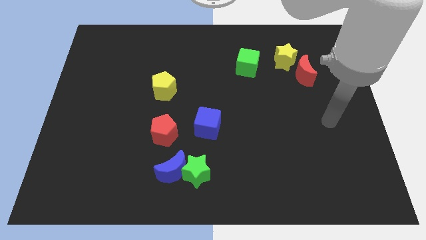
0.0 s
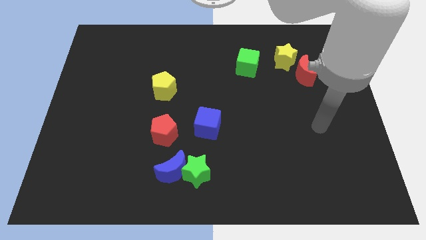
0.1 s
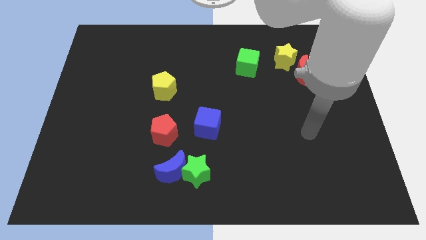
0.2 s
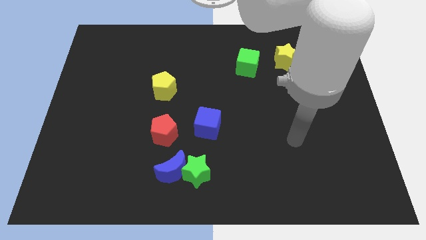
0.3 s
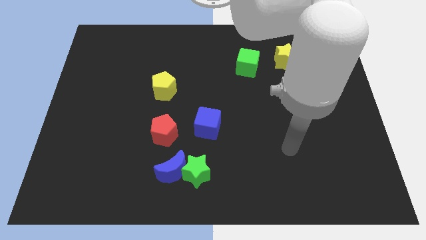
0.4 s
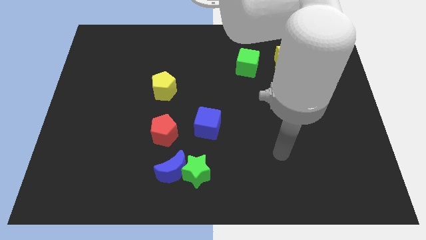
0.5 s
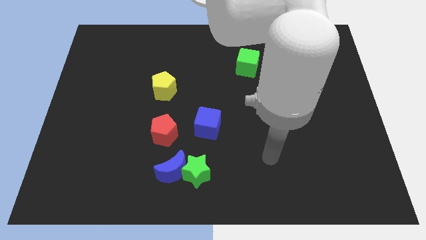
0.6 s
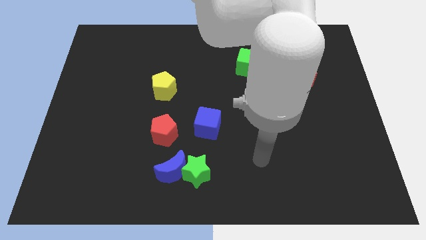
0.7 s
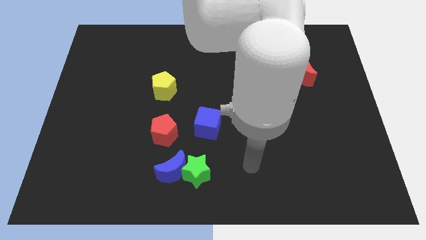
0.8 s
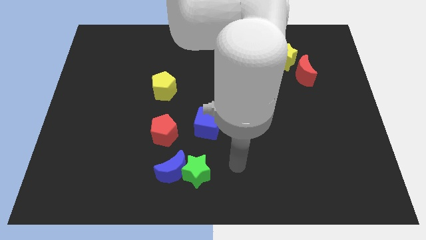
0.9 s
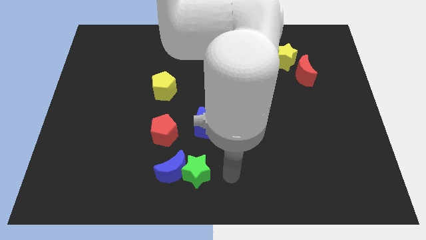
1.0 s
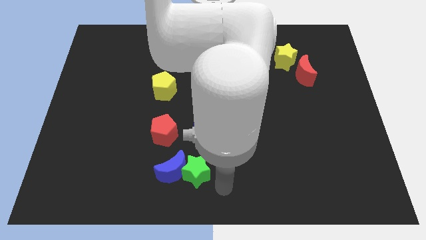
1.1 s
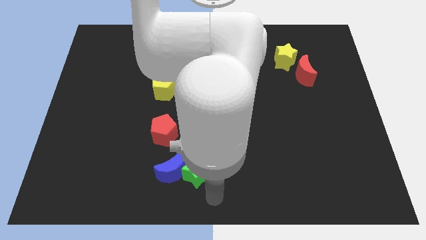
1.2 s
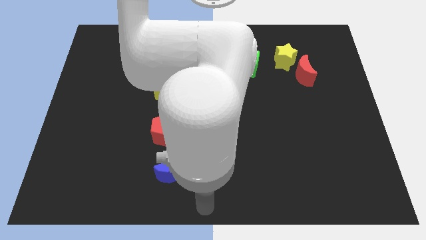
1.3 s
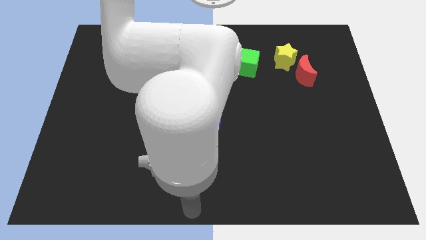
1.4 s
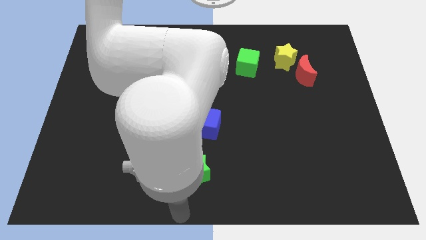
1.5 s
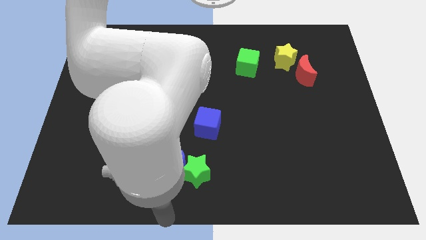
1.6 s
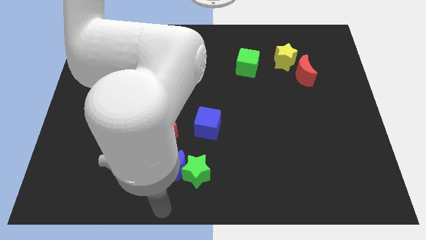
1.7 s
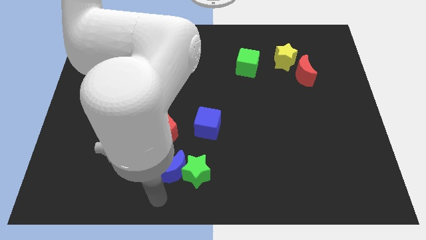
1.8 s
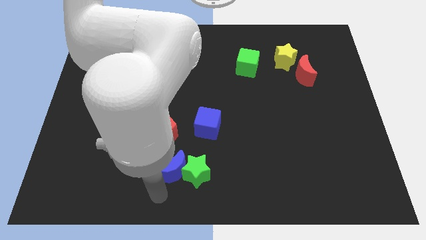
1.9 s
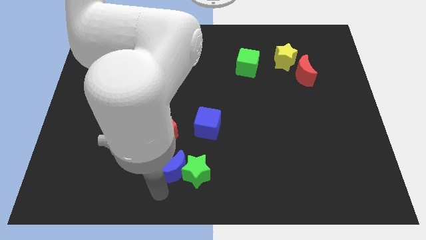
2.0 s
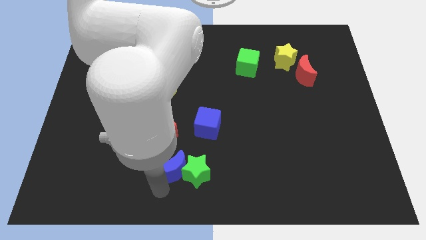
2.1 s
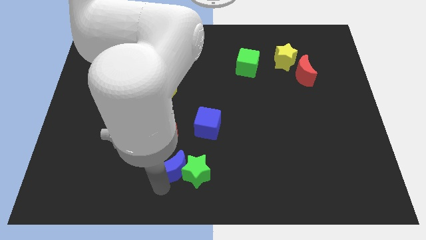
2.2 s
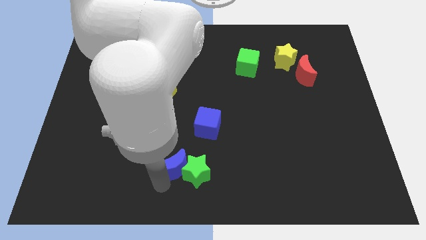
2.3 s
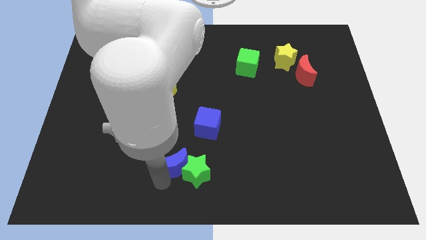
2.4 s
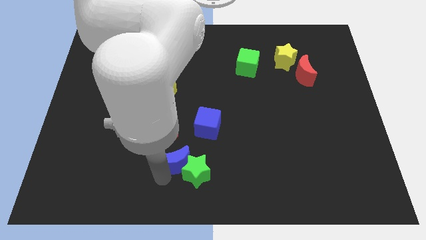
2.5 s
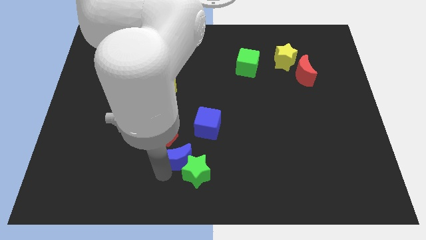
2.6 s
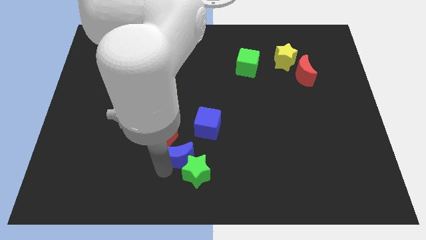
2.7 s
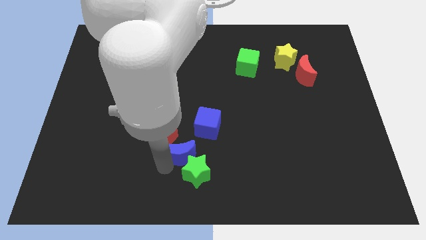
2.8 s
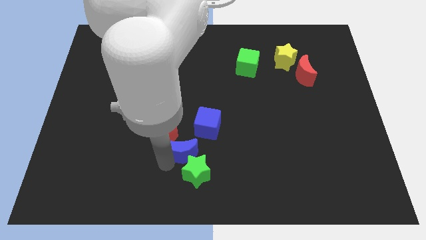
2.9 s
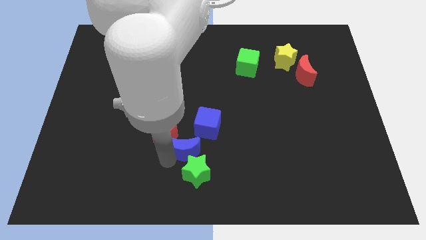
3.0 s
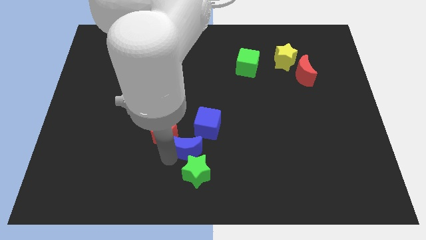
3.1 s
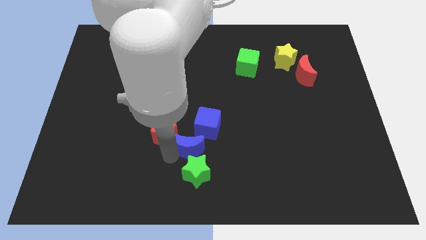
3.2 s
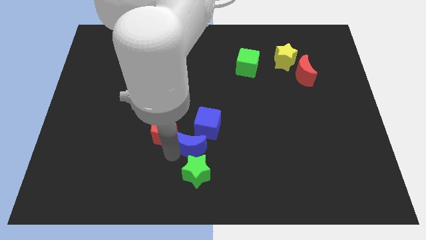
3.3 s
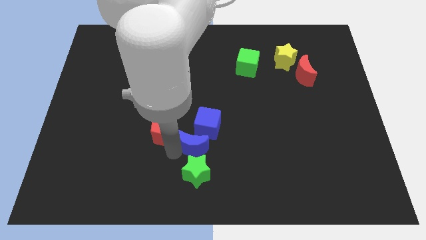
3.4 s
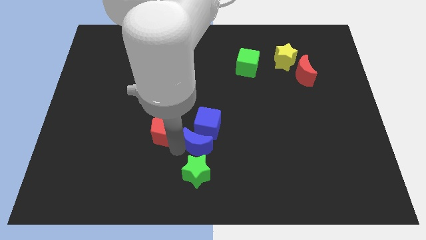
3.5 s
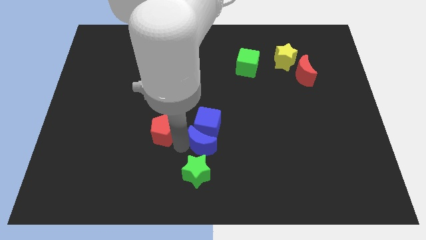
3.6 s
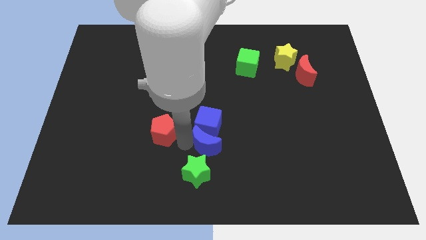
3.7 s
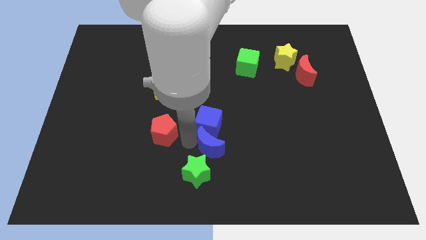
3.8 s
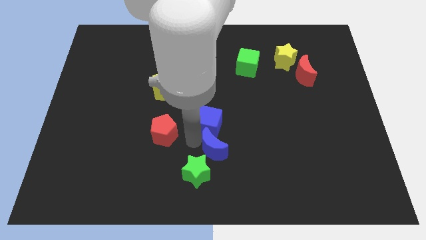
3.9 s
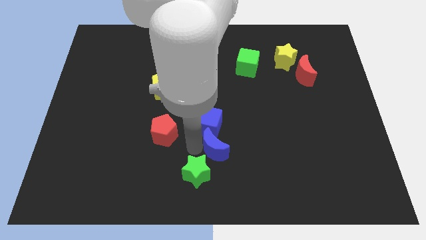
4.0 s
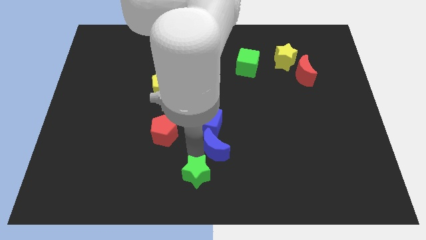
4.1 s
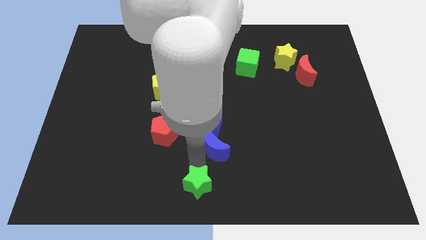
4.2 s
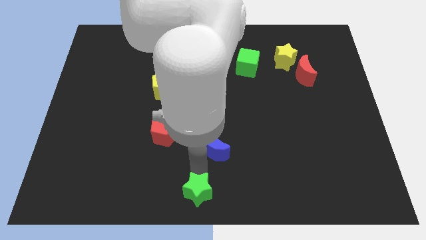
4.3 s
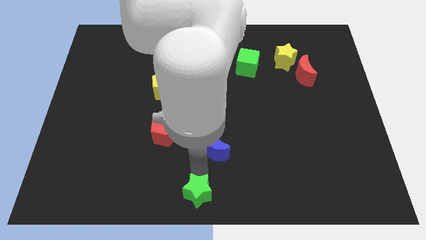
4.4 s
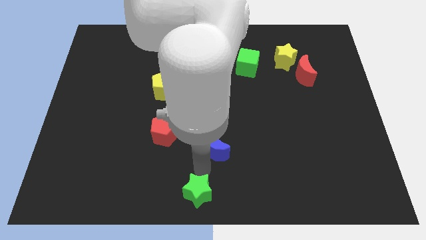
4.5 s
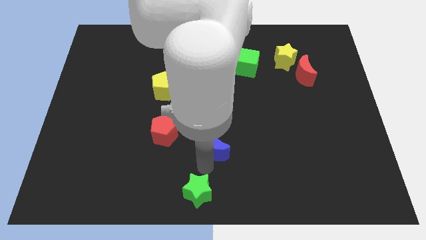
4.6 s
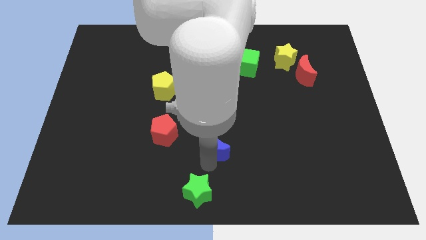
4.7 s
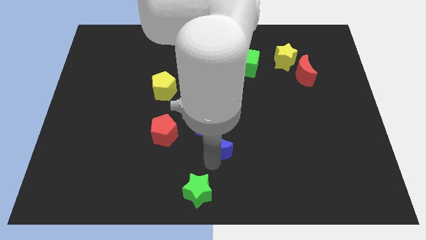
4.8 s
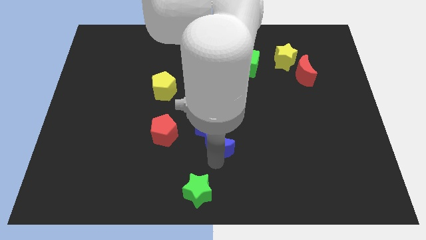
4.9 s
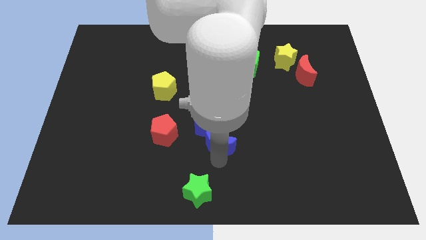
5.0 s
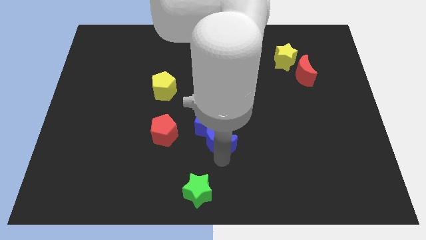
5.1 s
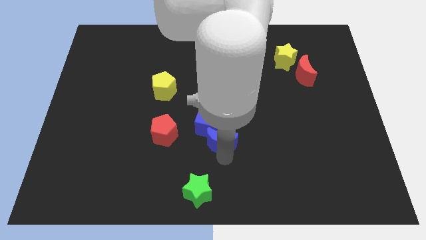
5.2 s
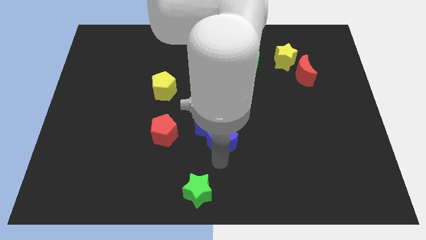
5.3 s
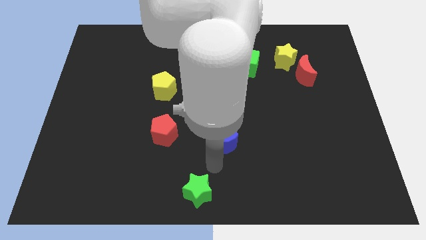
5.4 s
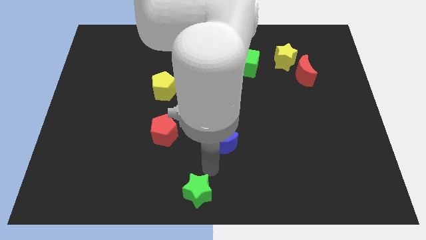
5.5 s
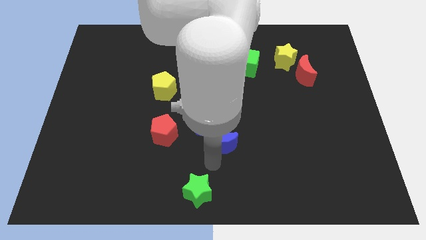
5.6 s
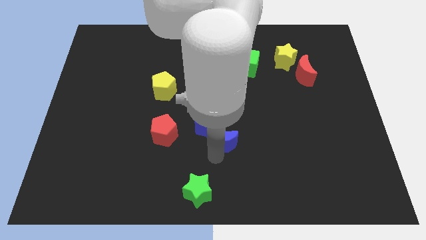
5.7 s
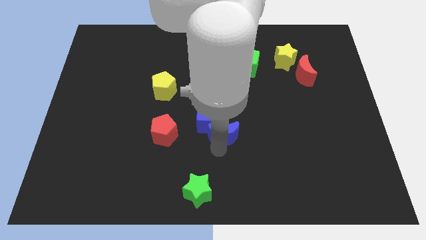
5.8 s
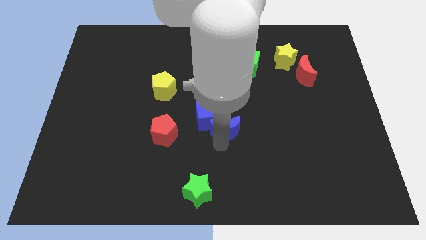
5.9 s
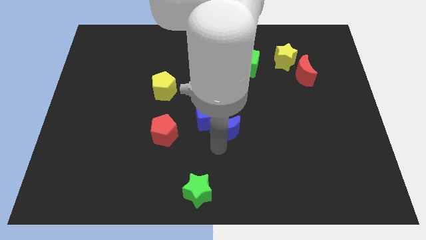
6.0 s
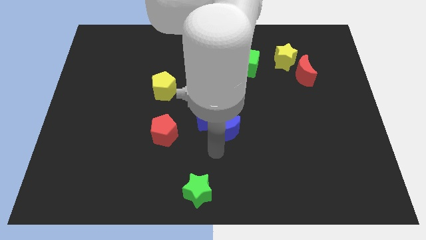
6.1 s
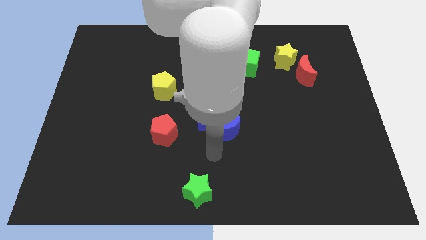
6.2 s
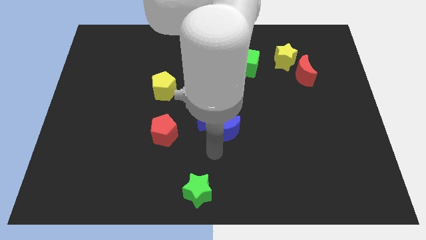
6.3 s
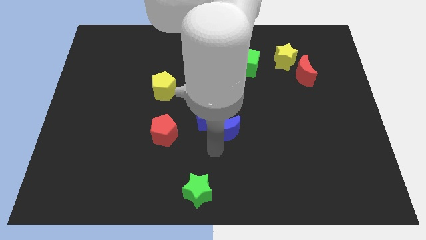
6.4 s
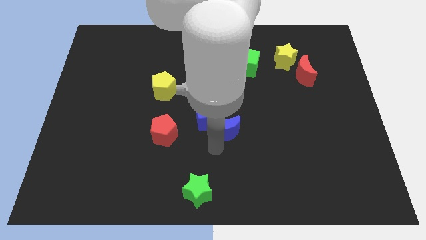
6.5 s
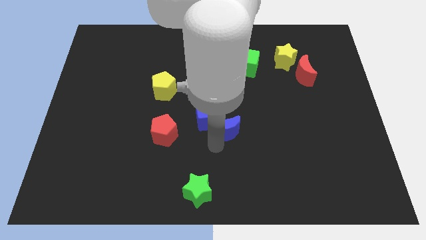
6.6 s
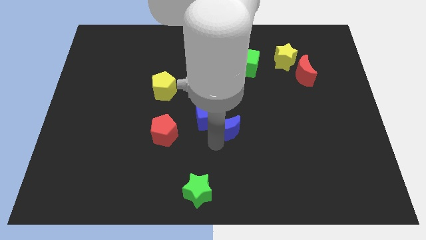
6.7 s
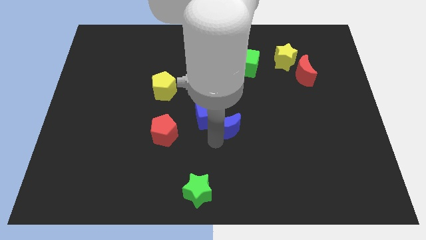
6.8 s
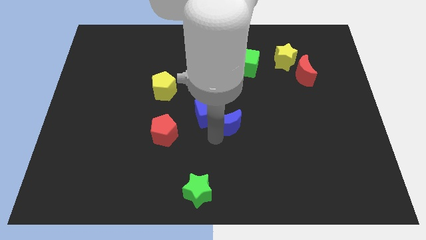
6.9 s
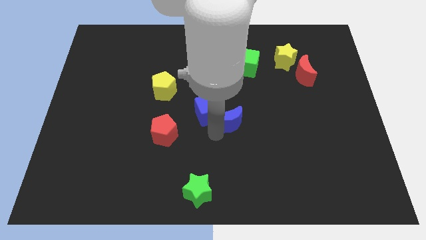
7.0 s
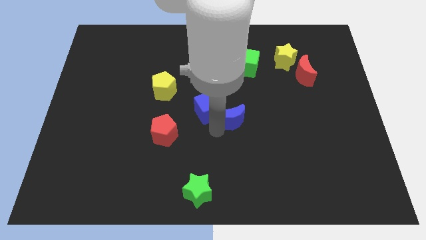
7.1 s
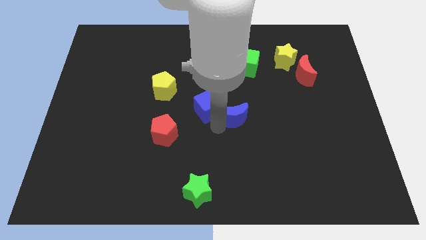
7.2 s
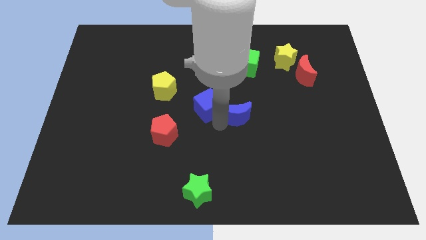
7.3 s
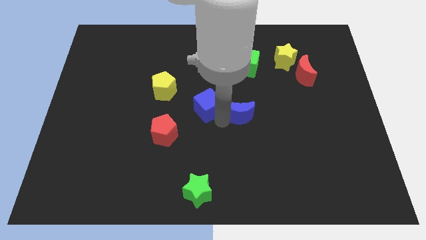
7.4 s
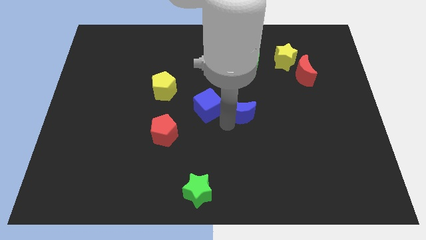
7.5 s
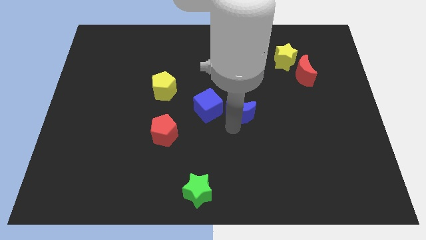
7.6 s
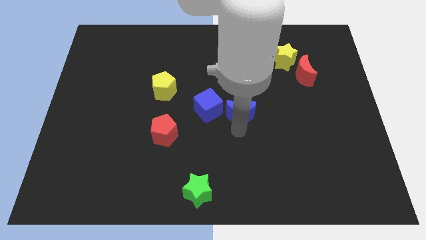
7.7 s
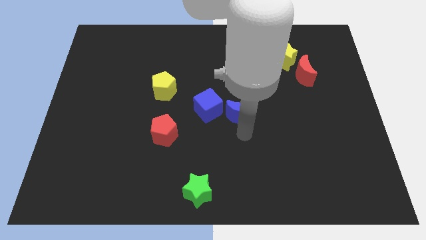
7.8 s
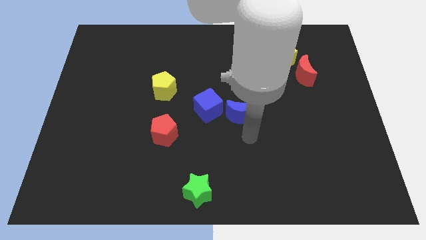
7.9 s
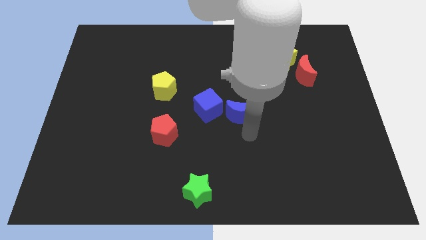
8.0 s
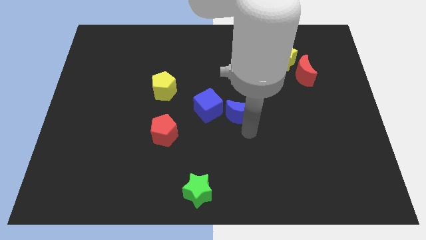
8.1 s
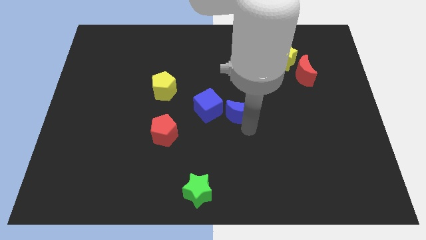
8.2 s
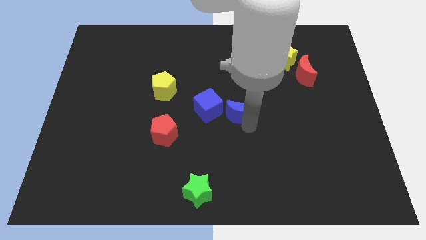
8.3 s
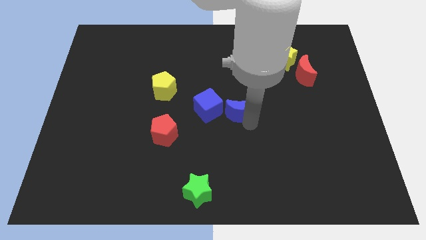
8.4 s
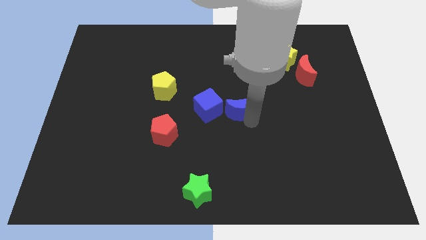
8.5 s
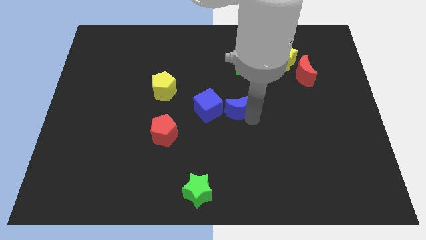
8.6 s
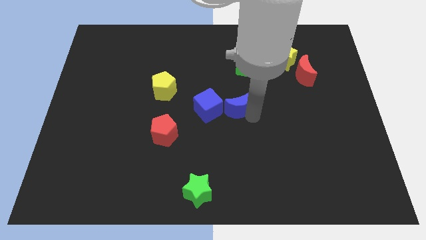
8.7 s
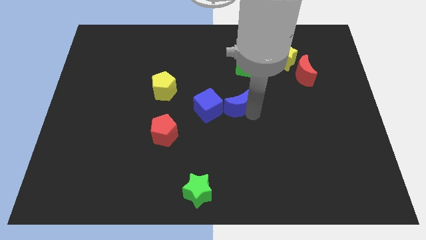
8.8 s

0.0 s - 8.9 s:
put the blue moon to the top right side of the blue cube
